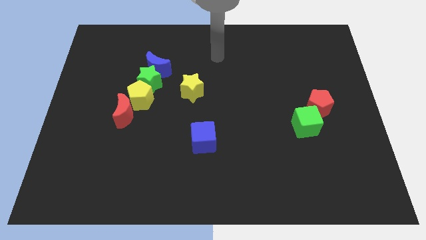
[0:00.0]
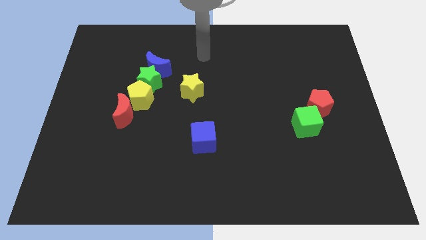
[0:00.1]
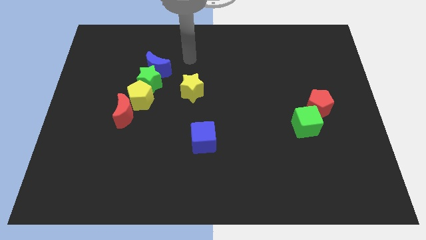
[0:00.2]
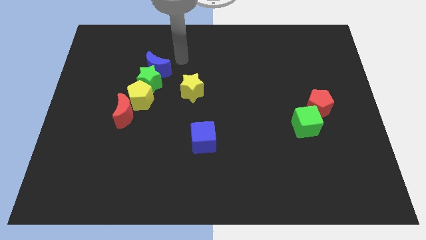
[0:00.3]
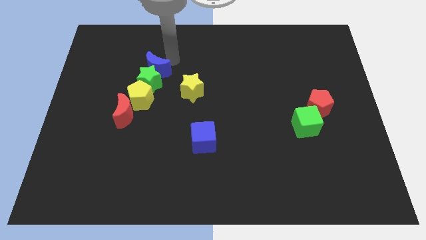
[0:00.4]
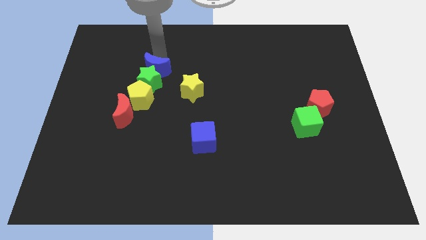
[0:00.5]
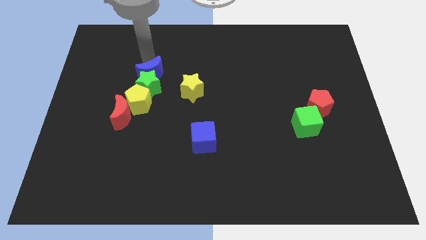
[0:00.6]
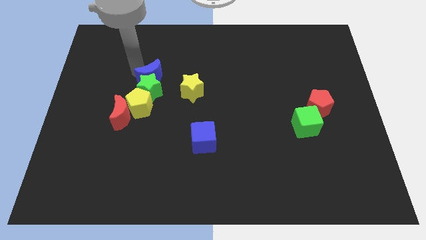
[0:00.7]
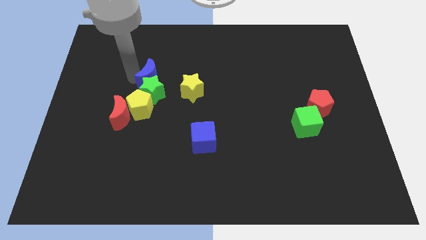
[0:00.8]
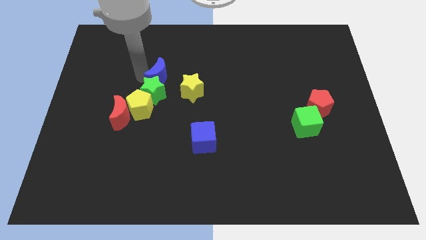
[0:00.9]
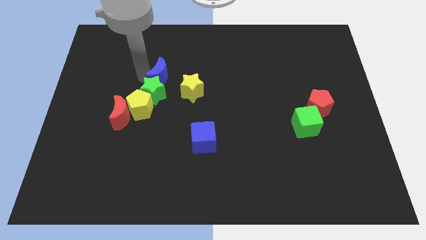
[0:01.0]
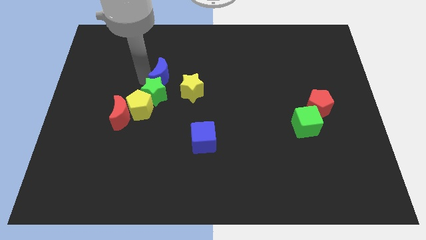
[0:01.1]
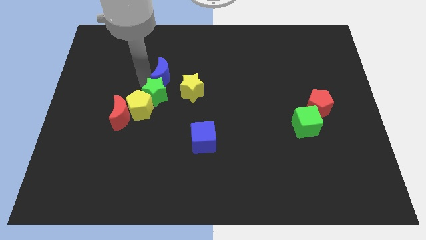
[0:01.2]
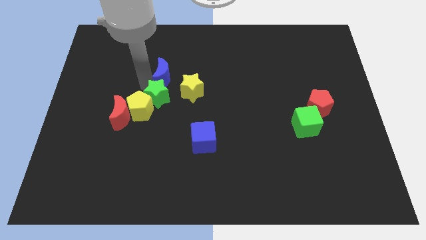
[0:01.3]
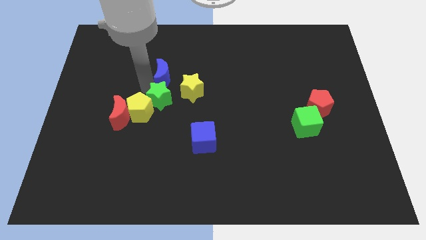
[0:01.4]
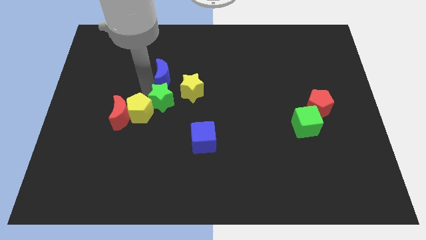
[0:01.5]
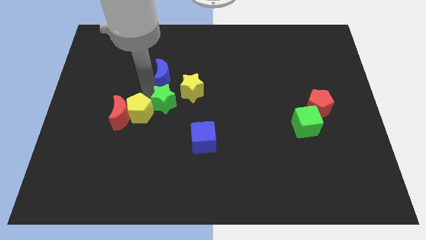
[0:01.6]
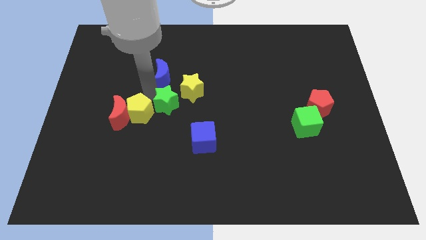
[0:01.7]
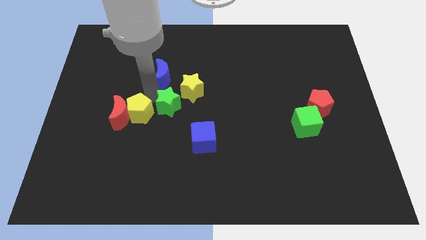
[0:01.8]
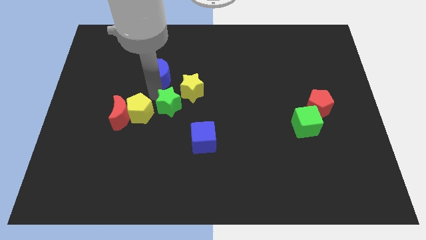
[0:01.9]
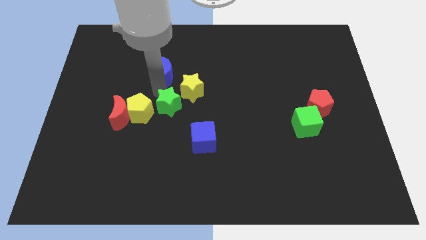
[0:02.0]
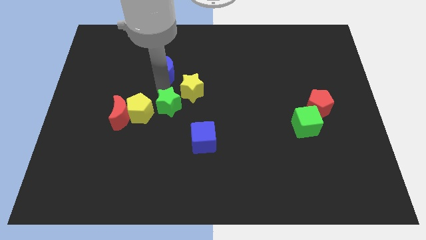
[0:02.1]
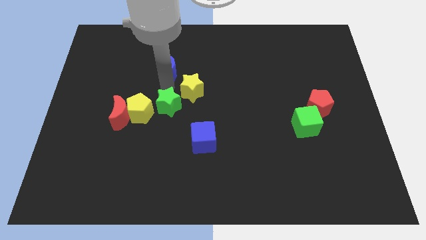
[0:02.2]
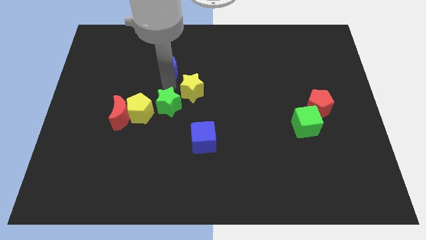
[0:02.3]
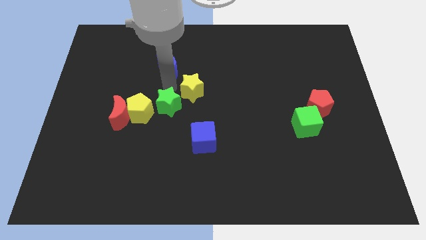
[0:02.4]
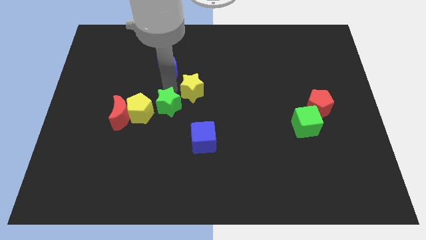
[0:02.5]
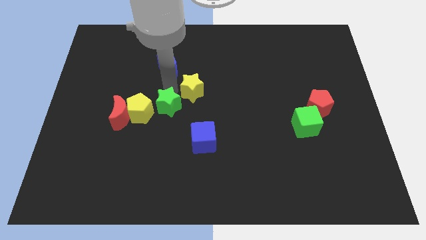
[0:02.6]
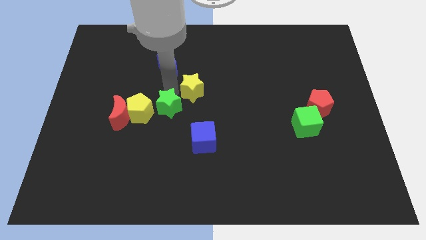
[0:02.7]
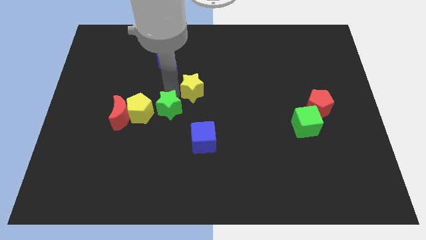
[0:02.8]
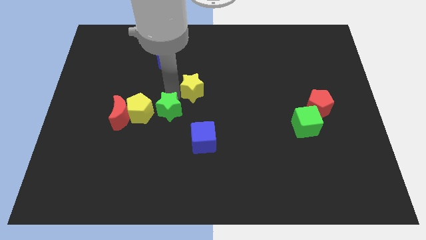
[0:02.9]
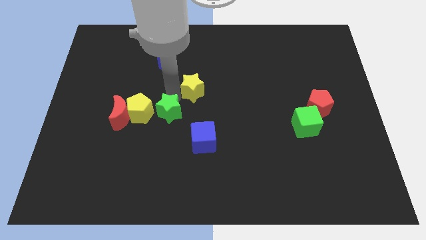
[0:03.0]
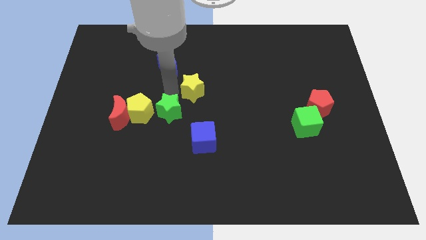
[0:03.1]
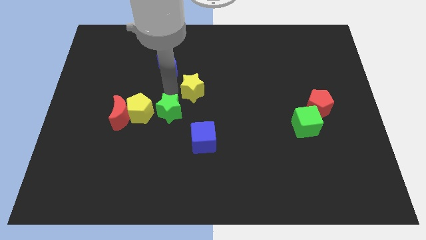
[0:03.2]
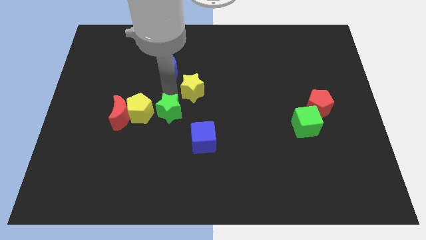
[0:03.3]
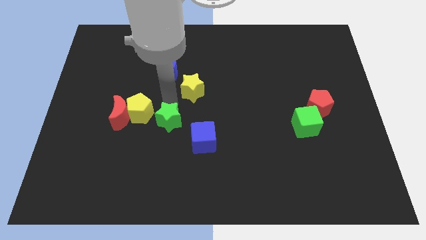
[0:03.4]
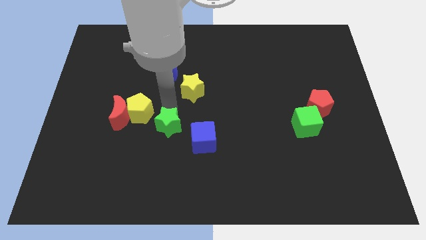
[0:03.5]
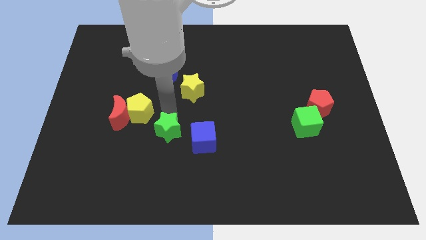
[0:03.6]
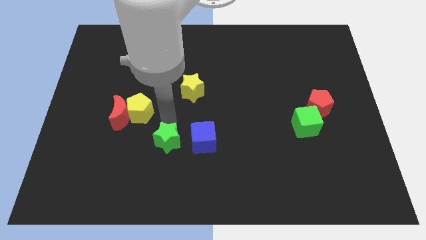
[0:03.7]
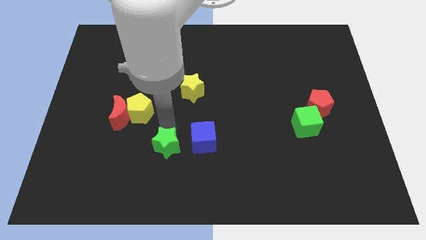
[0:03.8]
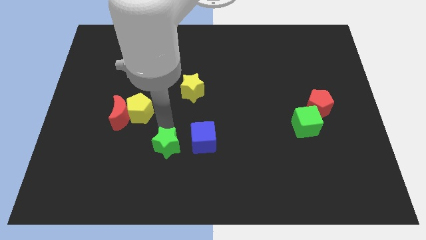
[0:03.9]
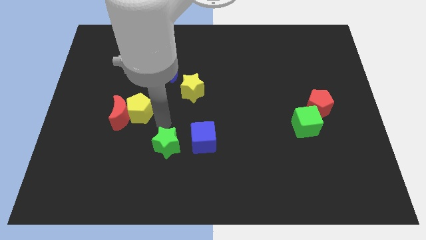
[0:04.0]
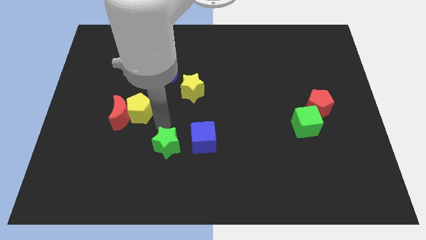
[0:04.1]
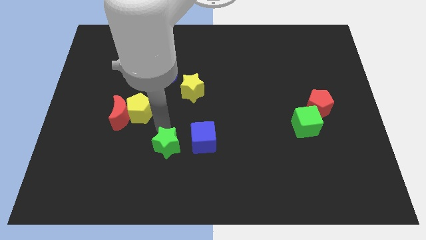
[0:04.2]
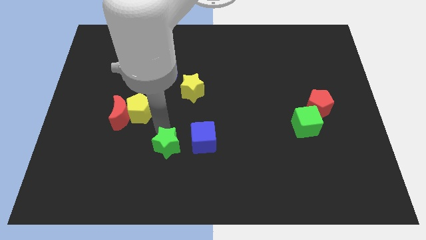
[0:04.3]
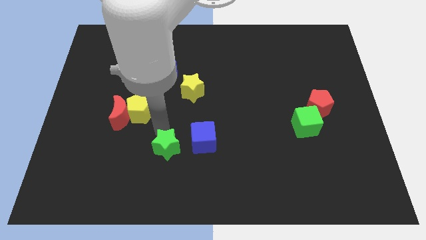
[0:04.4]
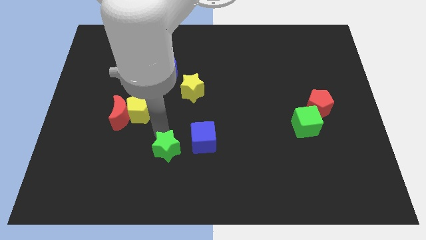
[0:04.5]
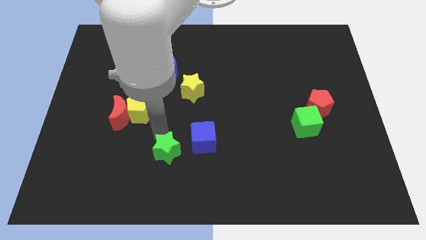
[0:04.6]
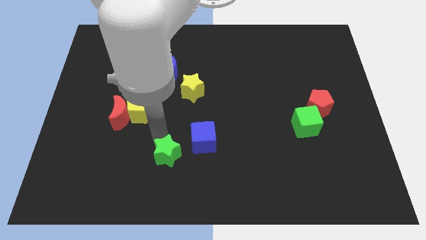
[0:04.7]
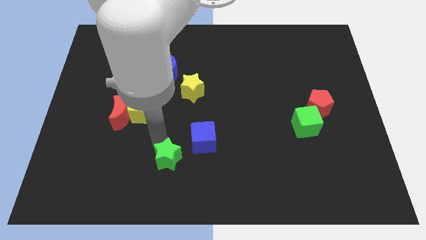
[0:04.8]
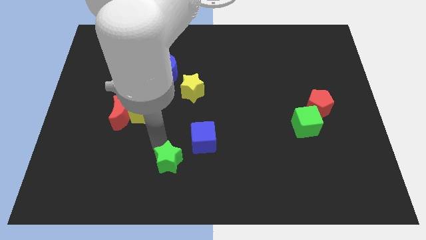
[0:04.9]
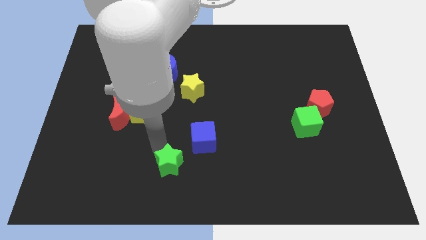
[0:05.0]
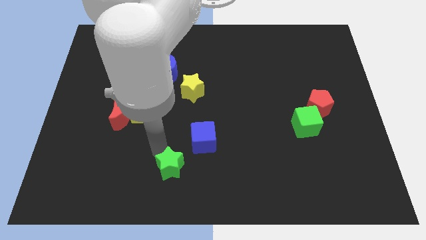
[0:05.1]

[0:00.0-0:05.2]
push the green star to the bottom

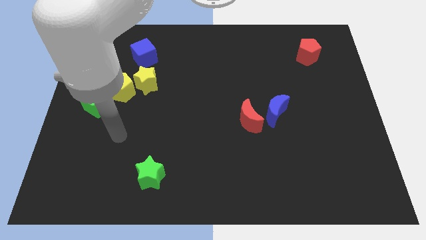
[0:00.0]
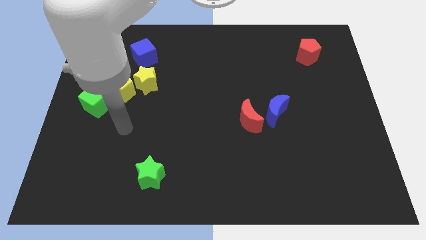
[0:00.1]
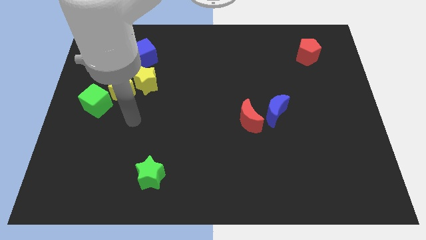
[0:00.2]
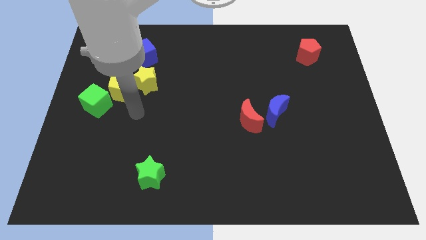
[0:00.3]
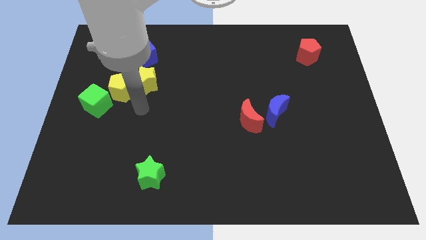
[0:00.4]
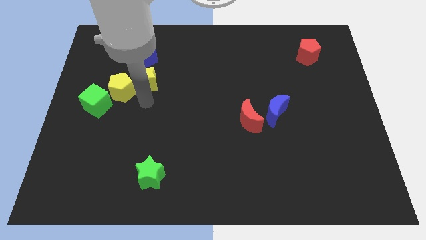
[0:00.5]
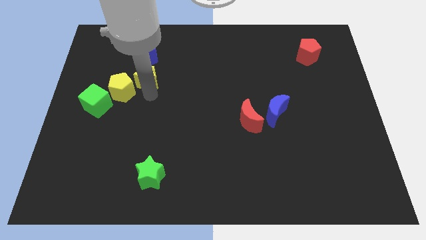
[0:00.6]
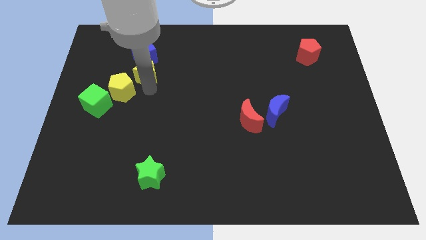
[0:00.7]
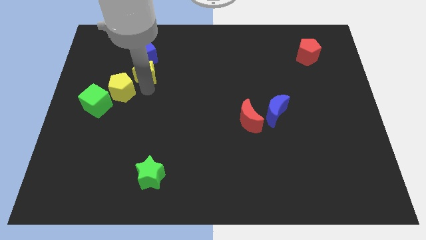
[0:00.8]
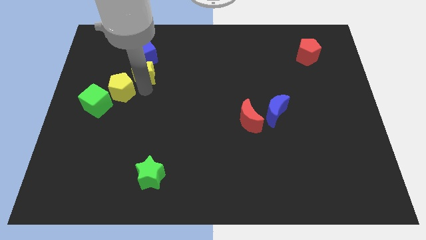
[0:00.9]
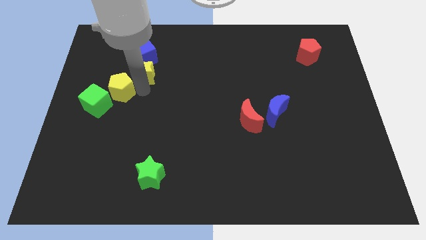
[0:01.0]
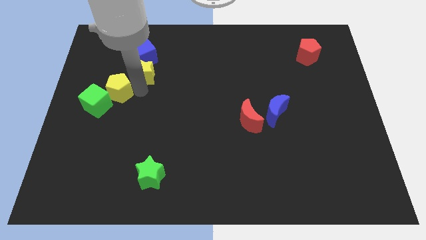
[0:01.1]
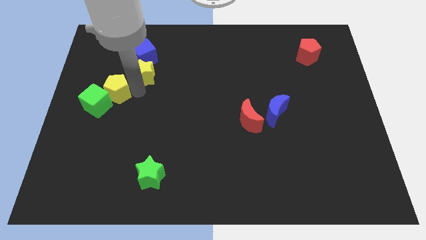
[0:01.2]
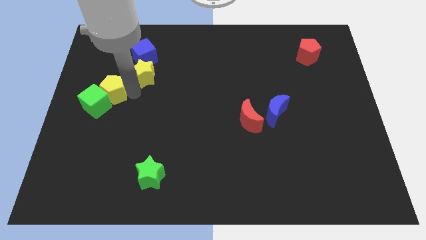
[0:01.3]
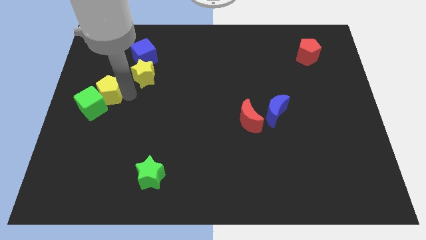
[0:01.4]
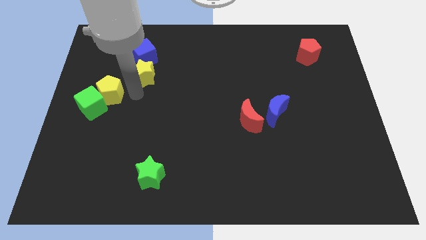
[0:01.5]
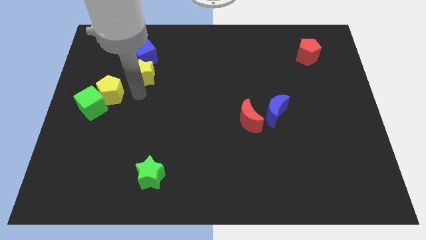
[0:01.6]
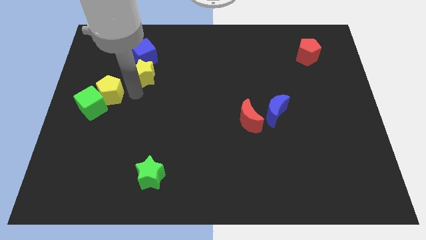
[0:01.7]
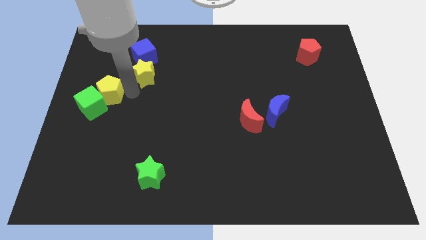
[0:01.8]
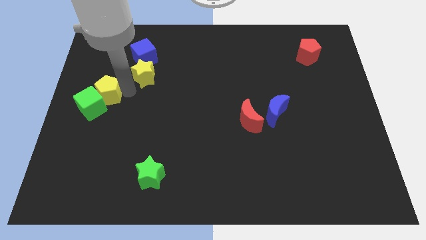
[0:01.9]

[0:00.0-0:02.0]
move the yellow pentagon to the center left
